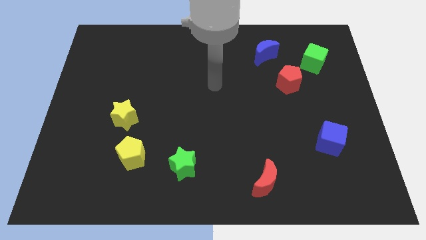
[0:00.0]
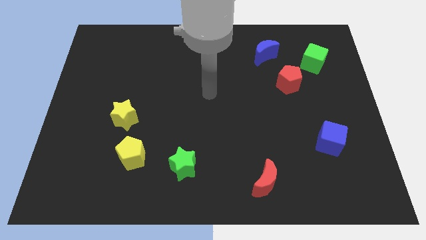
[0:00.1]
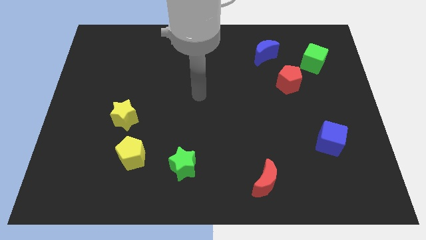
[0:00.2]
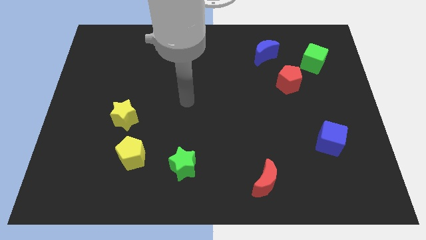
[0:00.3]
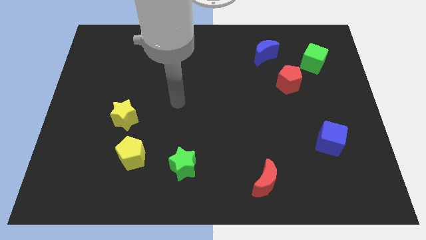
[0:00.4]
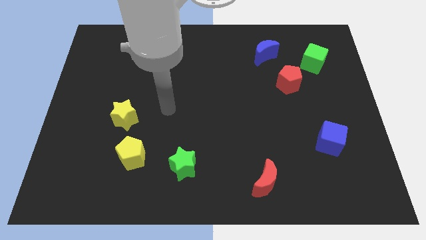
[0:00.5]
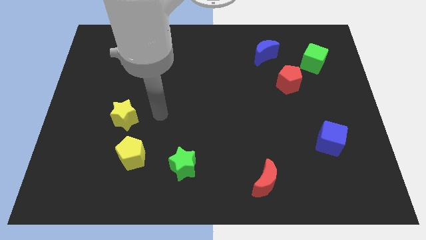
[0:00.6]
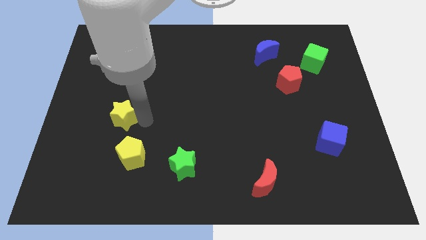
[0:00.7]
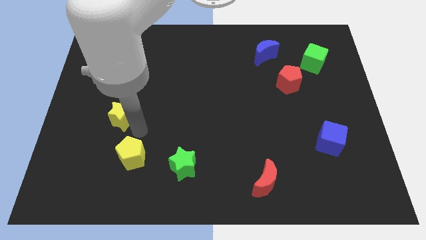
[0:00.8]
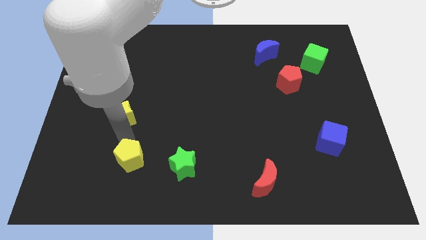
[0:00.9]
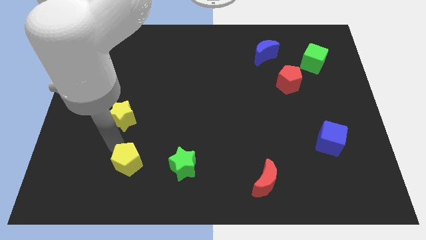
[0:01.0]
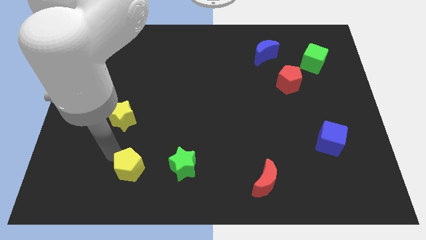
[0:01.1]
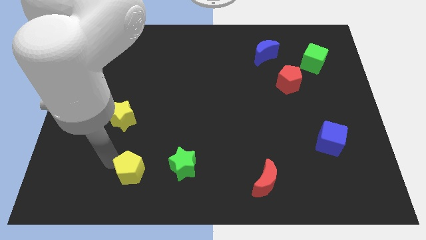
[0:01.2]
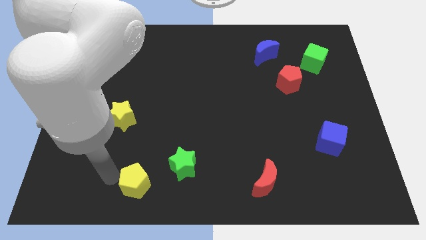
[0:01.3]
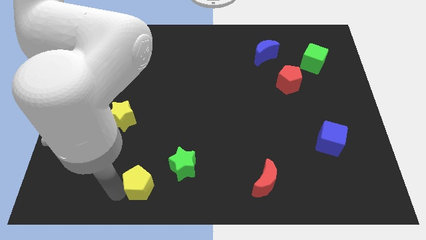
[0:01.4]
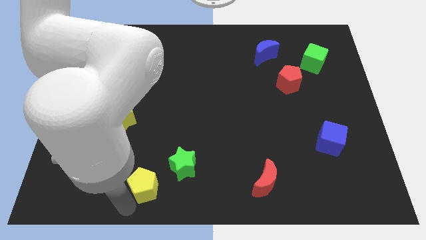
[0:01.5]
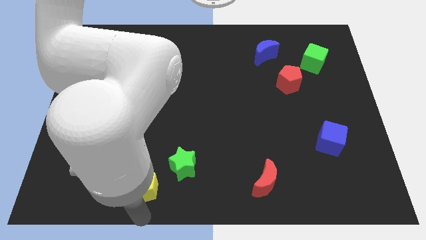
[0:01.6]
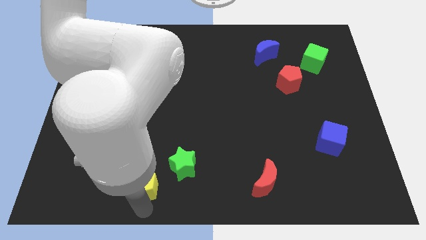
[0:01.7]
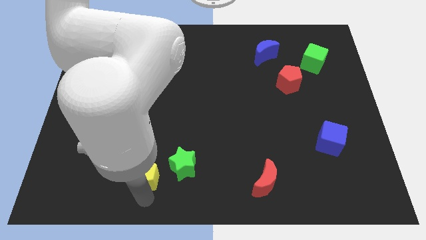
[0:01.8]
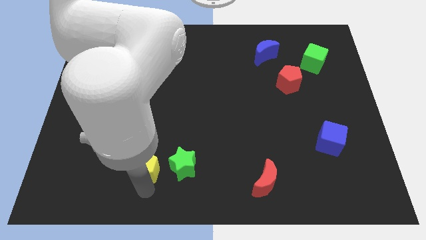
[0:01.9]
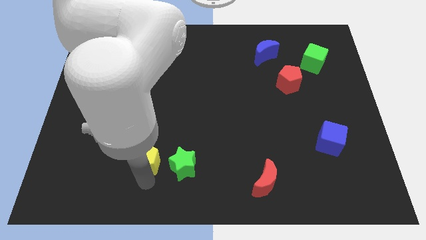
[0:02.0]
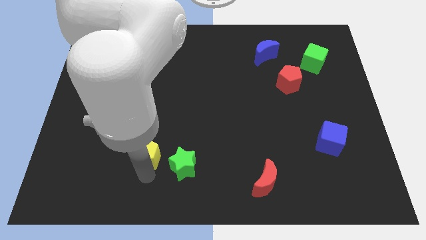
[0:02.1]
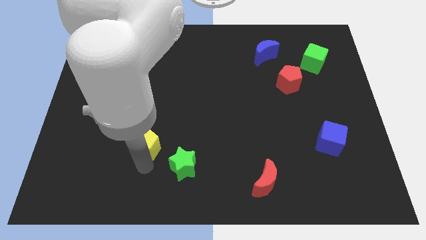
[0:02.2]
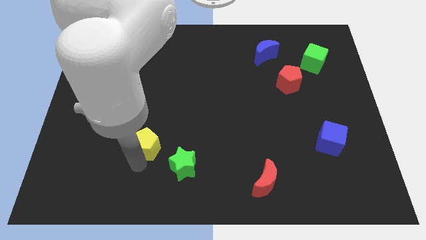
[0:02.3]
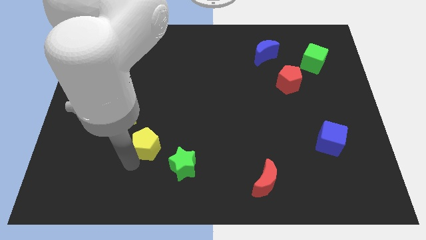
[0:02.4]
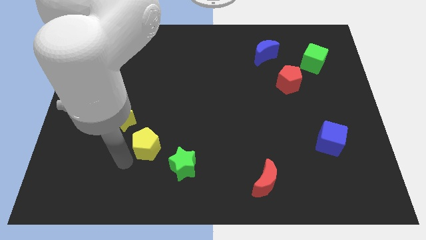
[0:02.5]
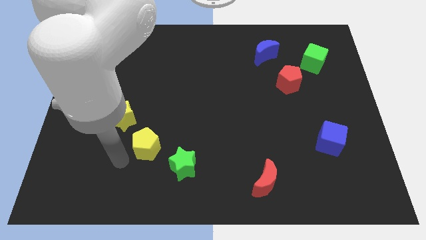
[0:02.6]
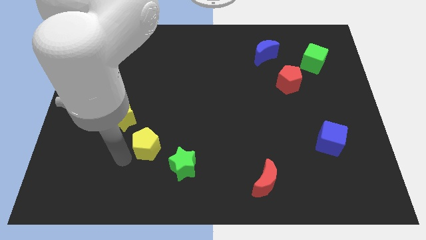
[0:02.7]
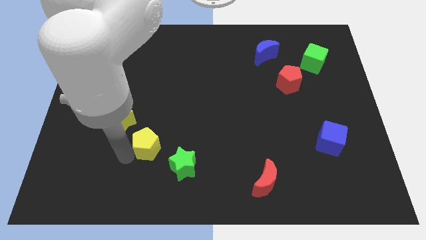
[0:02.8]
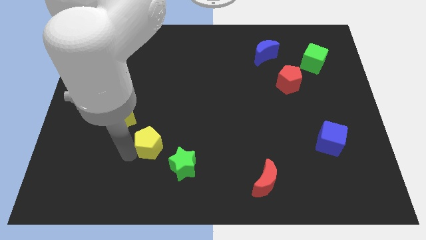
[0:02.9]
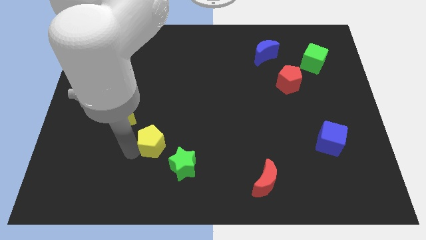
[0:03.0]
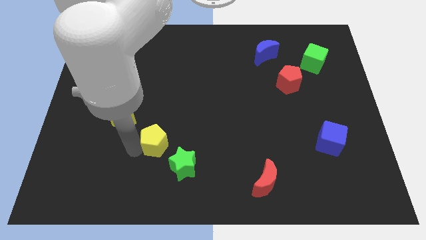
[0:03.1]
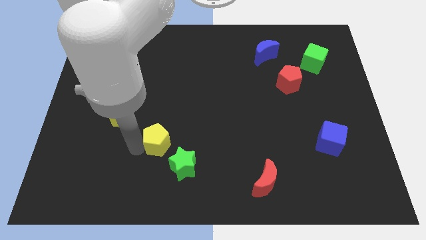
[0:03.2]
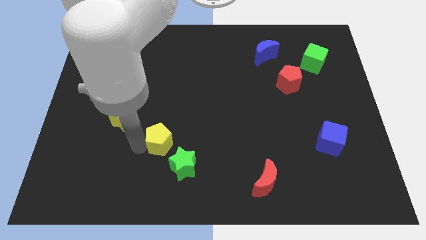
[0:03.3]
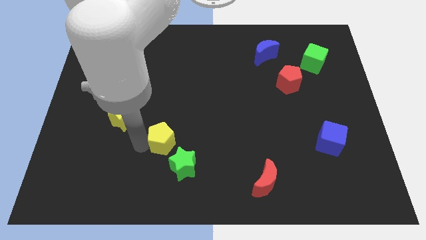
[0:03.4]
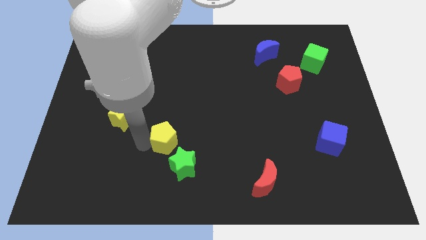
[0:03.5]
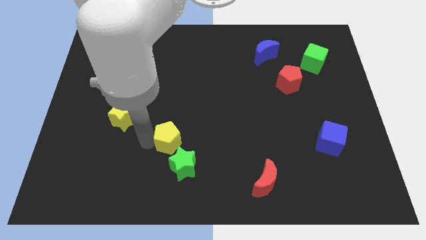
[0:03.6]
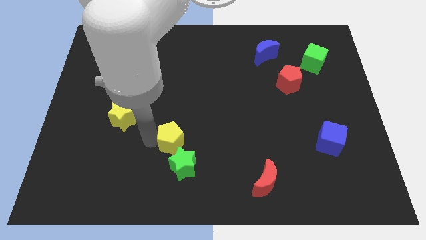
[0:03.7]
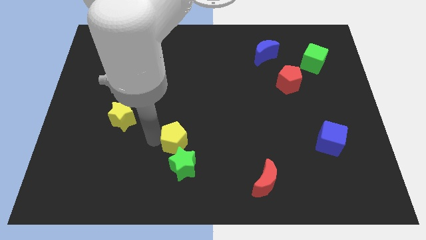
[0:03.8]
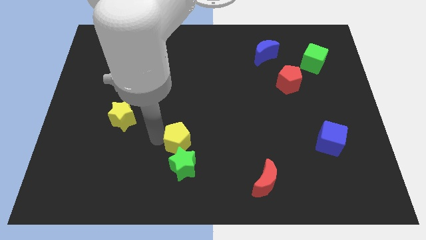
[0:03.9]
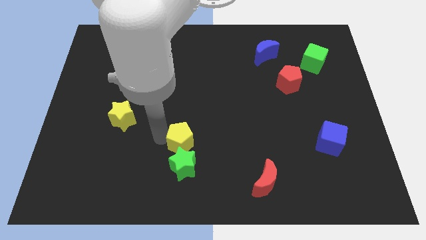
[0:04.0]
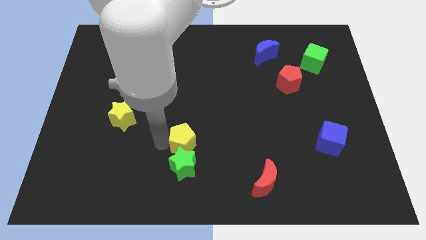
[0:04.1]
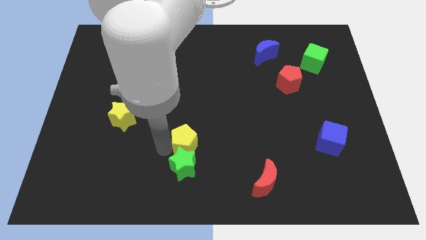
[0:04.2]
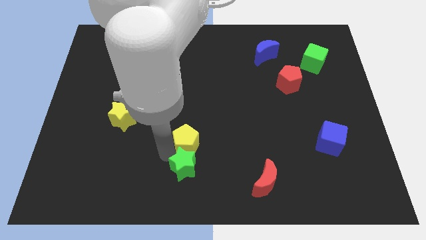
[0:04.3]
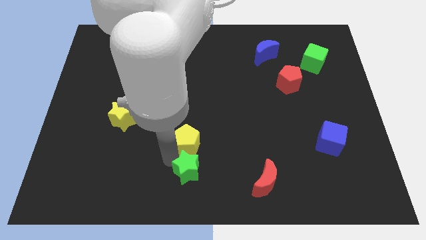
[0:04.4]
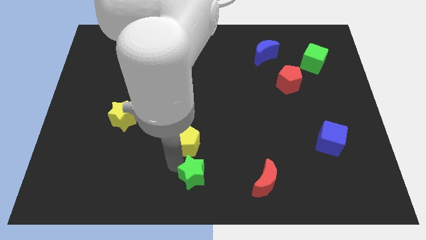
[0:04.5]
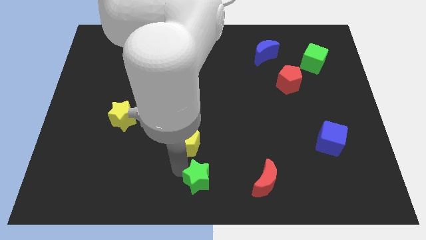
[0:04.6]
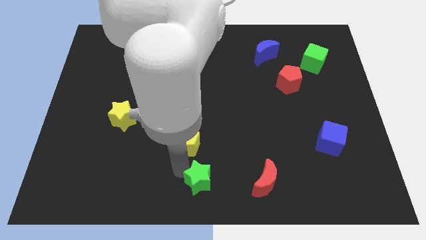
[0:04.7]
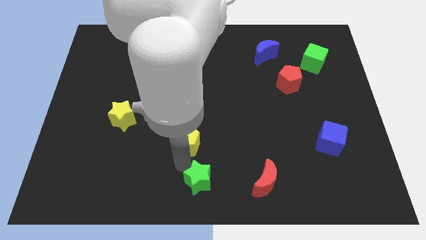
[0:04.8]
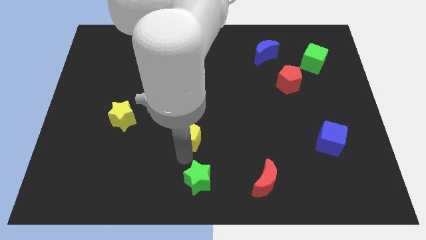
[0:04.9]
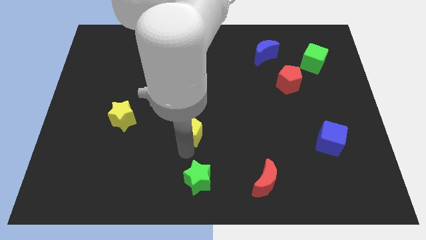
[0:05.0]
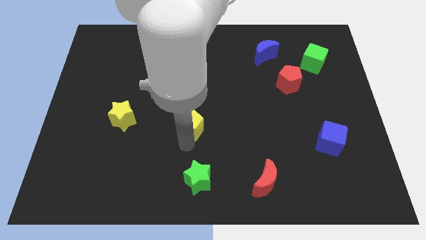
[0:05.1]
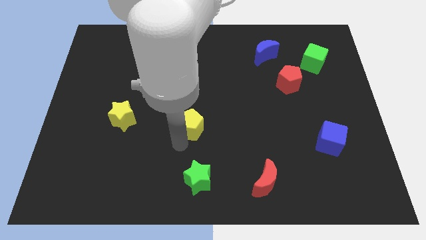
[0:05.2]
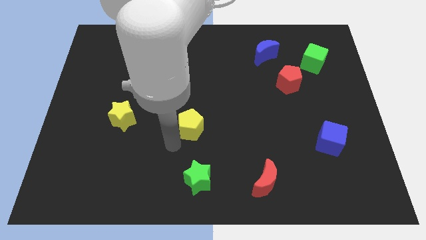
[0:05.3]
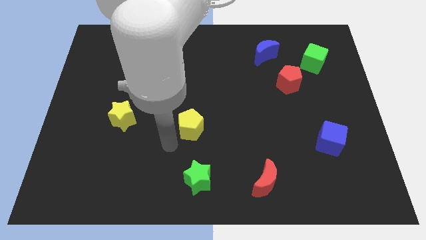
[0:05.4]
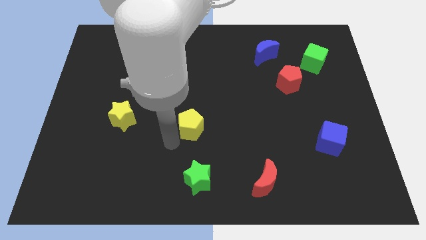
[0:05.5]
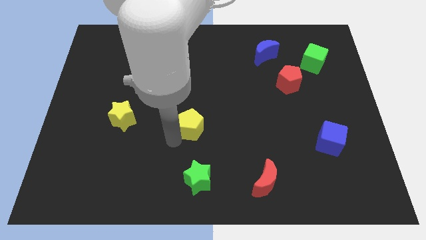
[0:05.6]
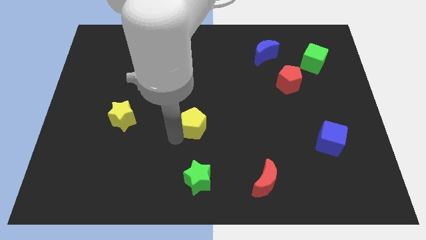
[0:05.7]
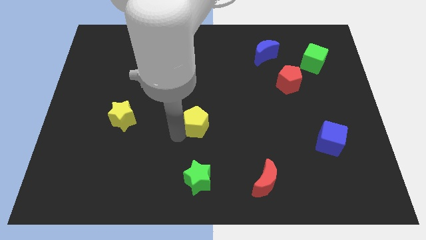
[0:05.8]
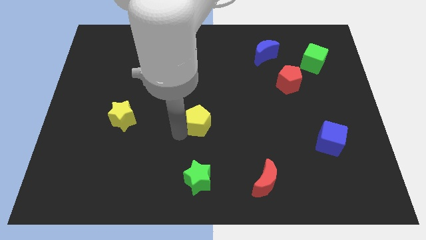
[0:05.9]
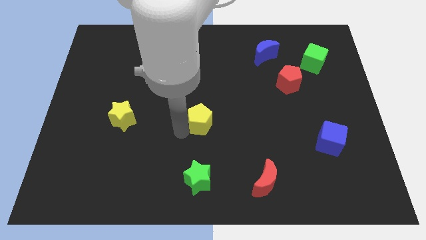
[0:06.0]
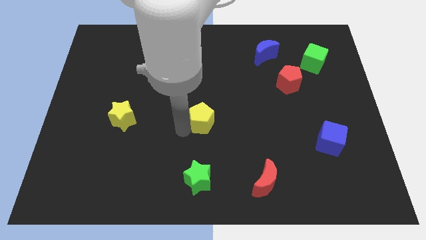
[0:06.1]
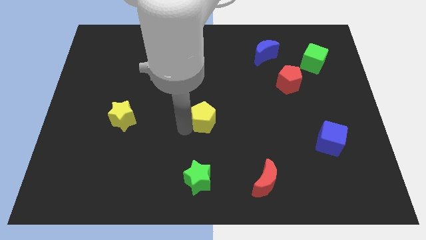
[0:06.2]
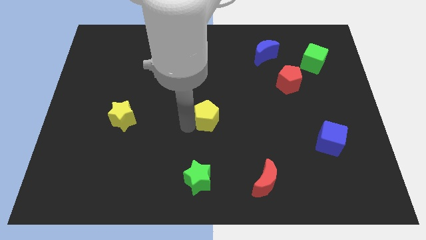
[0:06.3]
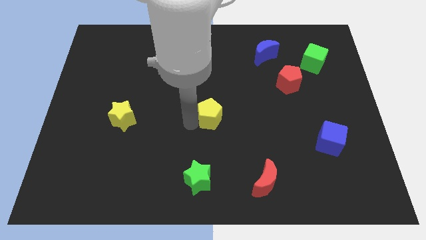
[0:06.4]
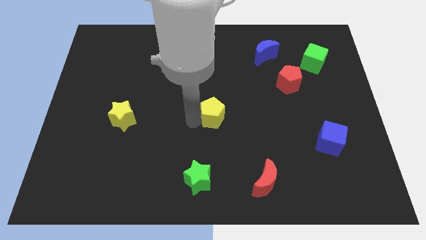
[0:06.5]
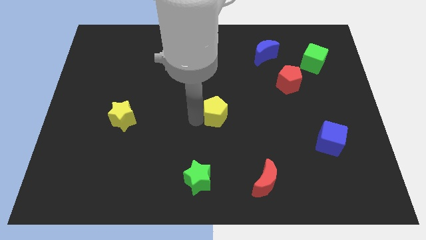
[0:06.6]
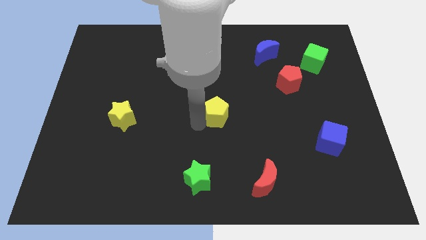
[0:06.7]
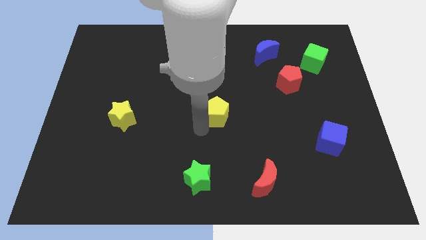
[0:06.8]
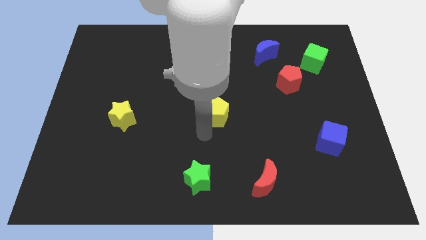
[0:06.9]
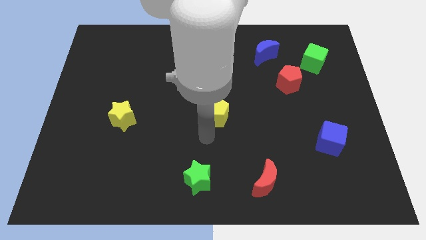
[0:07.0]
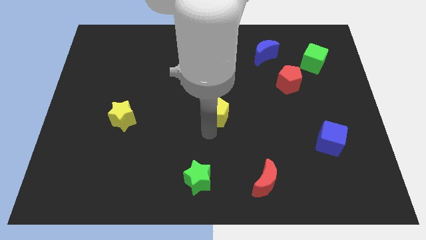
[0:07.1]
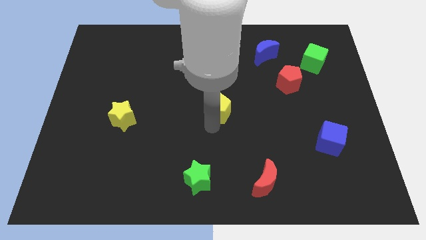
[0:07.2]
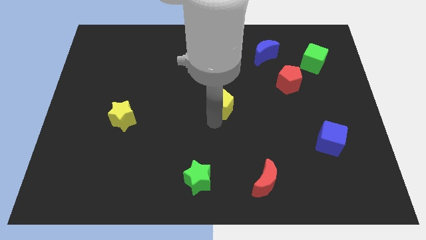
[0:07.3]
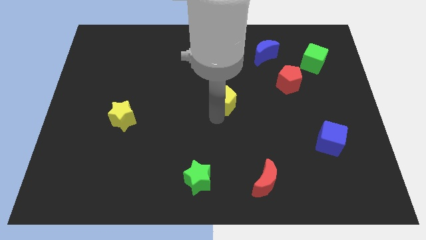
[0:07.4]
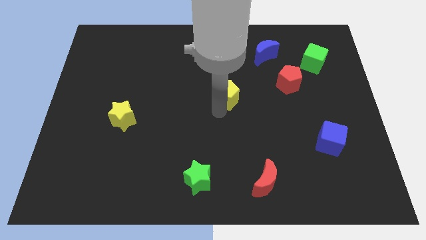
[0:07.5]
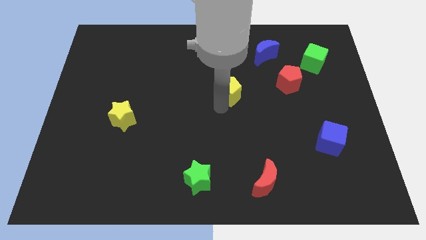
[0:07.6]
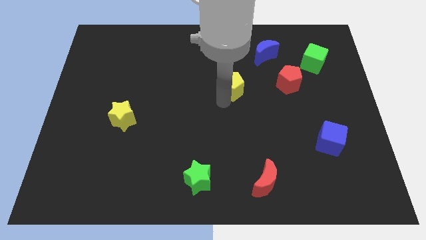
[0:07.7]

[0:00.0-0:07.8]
put the yellow pentagon to the left of the red pentagon
